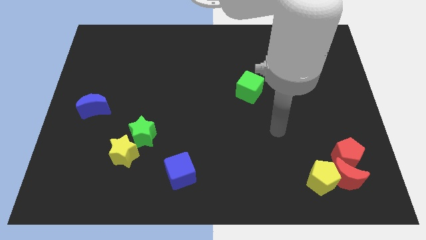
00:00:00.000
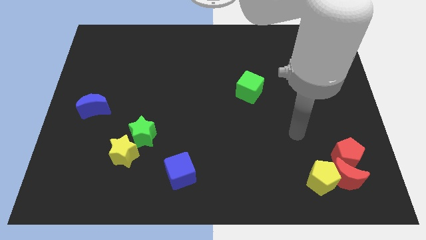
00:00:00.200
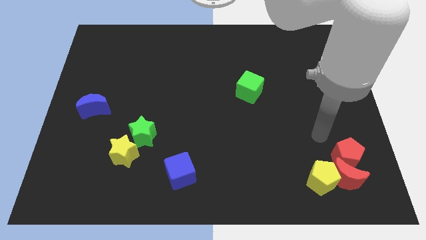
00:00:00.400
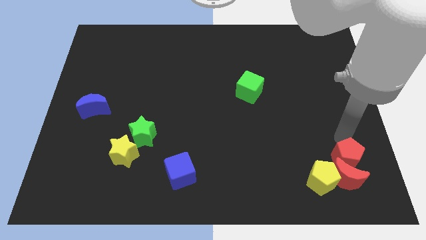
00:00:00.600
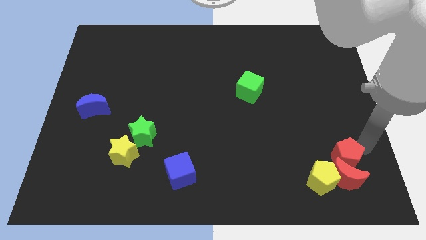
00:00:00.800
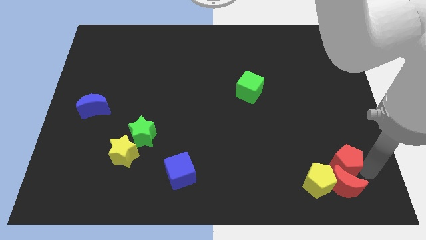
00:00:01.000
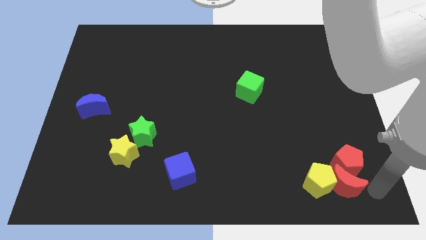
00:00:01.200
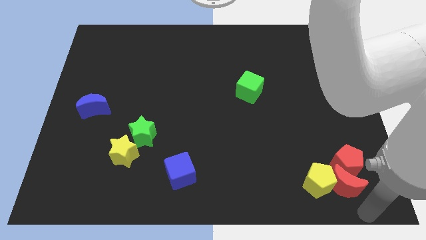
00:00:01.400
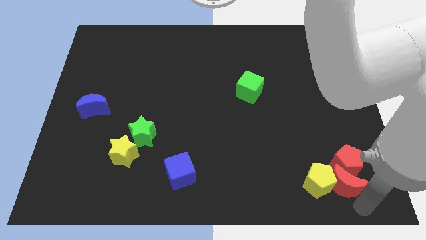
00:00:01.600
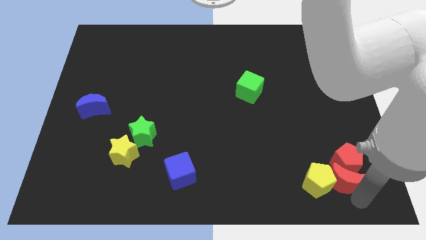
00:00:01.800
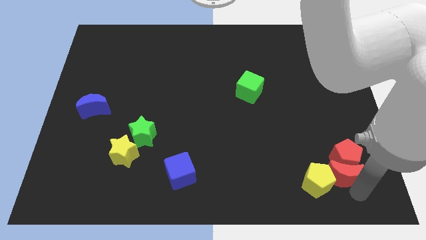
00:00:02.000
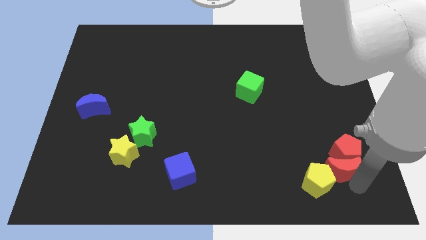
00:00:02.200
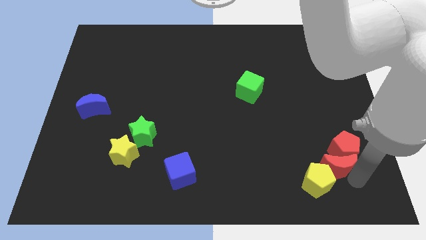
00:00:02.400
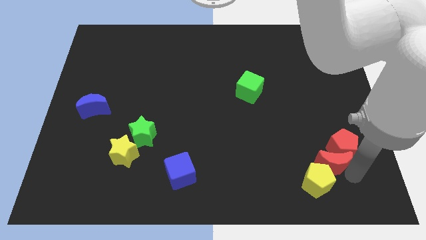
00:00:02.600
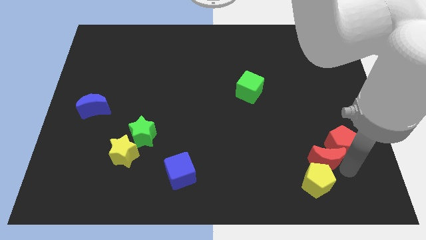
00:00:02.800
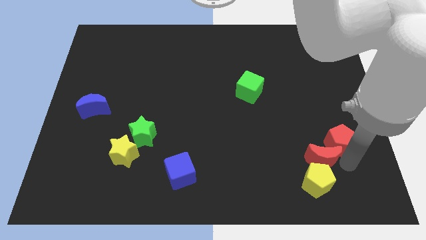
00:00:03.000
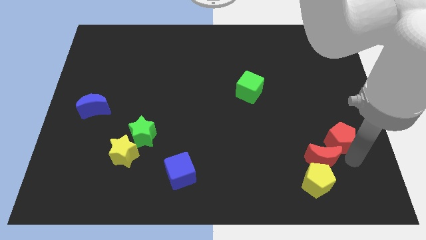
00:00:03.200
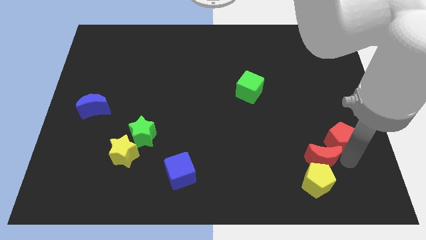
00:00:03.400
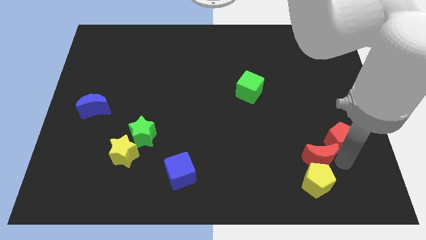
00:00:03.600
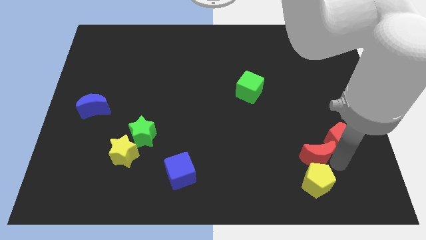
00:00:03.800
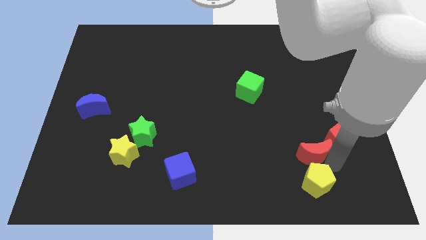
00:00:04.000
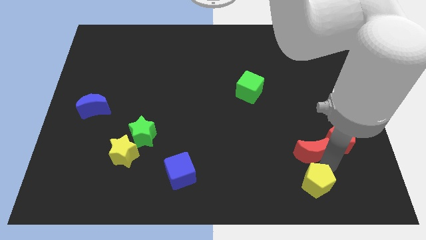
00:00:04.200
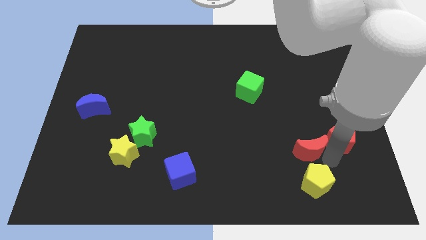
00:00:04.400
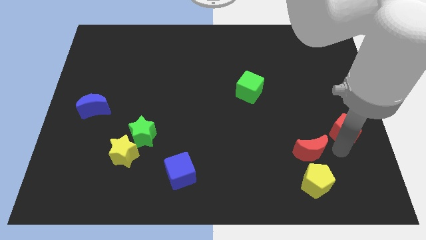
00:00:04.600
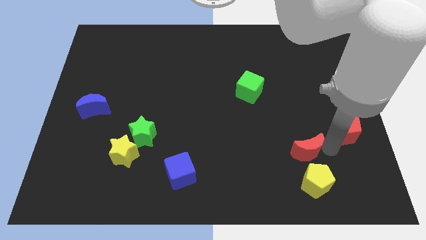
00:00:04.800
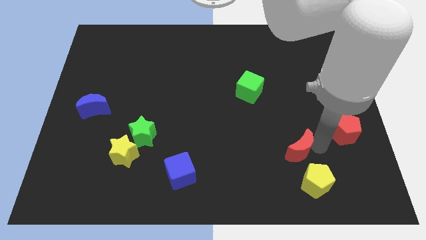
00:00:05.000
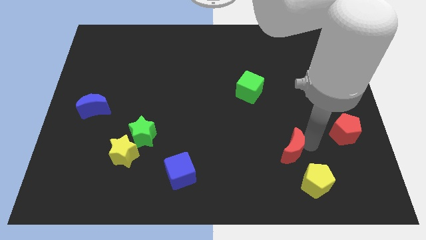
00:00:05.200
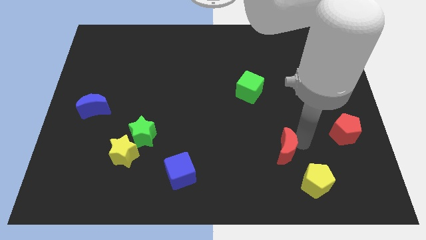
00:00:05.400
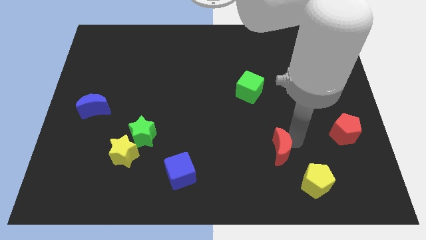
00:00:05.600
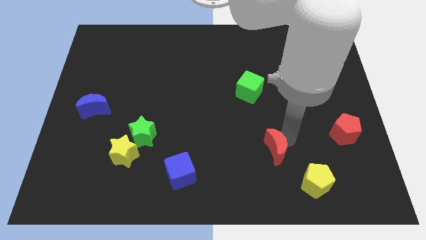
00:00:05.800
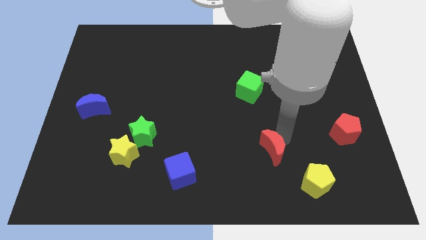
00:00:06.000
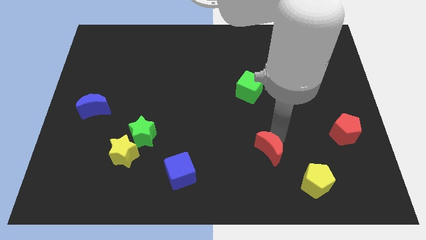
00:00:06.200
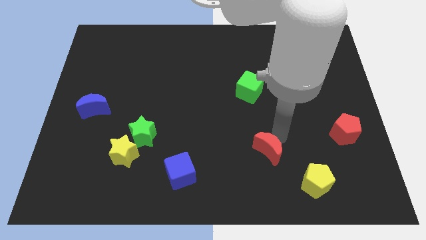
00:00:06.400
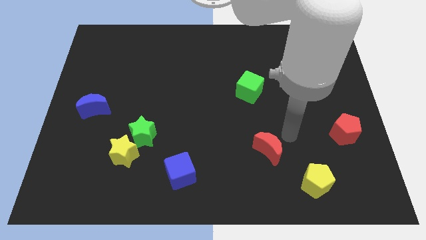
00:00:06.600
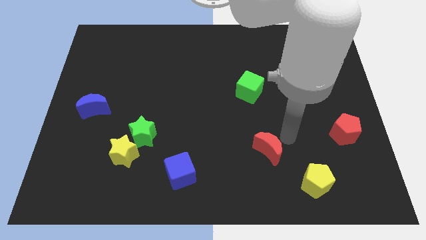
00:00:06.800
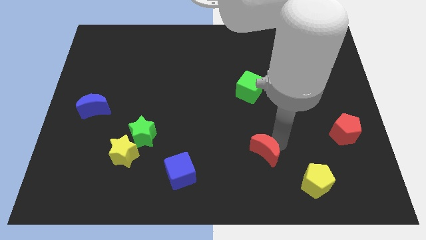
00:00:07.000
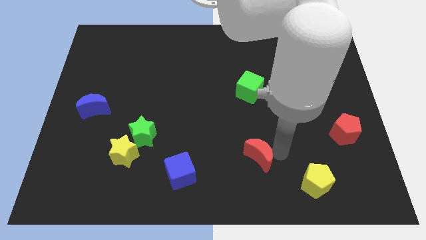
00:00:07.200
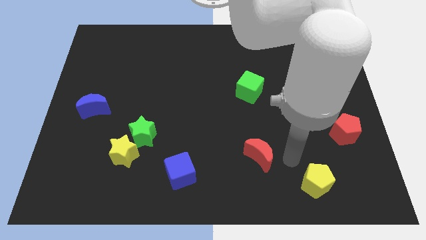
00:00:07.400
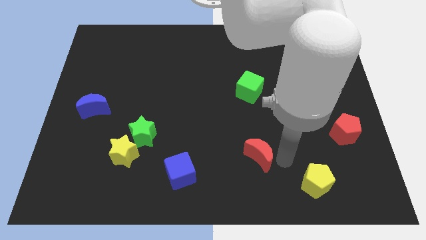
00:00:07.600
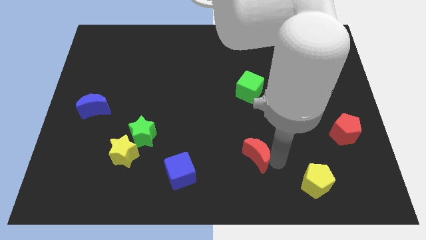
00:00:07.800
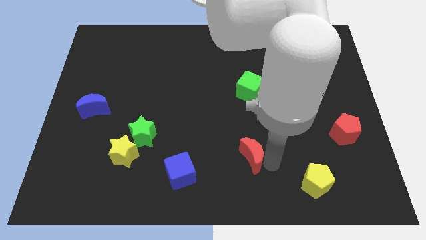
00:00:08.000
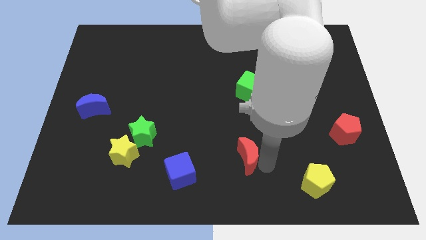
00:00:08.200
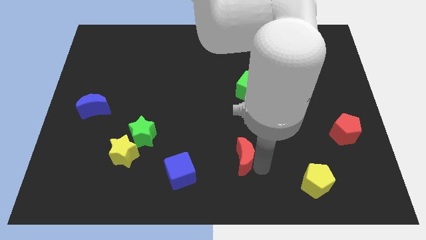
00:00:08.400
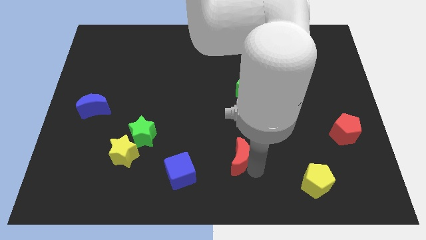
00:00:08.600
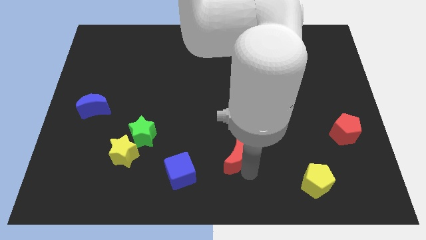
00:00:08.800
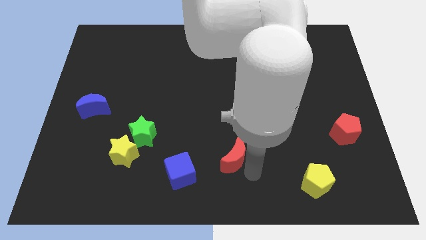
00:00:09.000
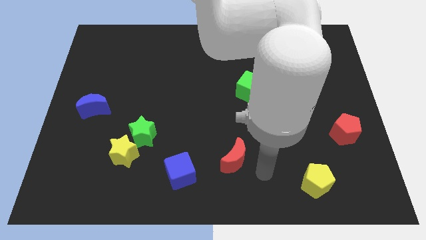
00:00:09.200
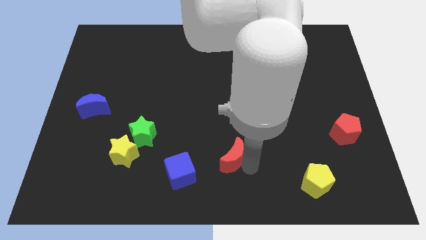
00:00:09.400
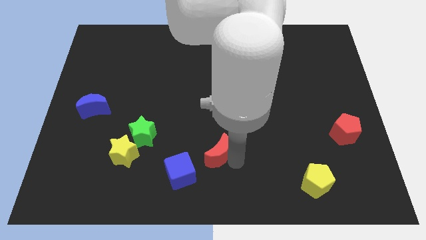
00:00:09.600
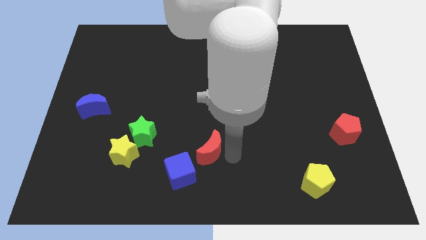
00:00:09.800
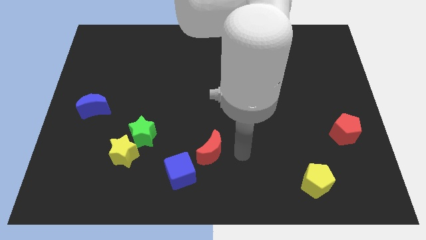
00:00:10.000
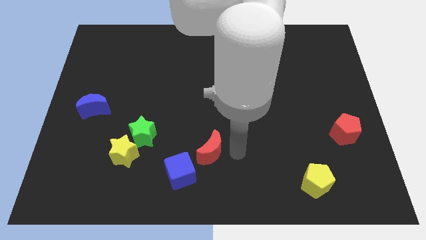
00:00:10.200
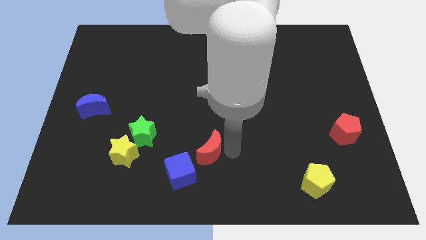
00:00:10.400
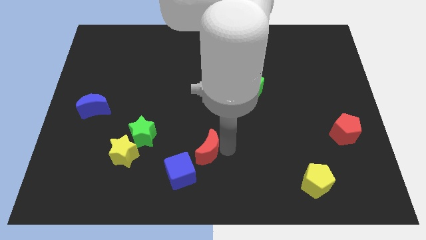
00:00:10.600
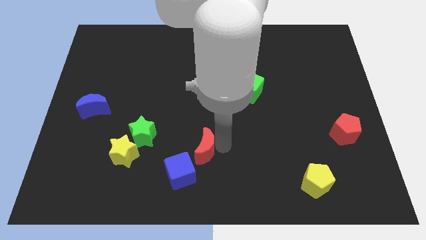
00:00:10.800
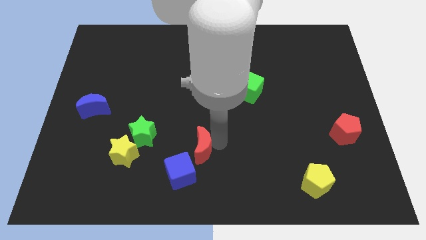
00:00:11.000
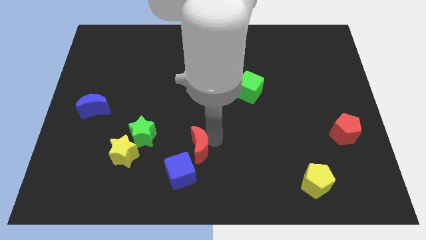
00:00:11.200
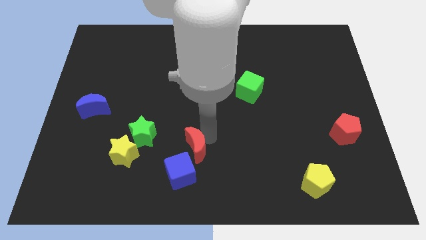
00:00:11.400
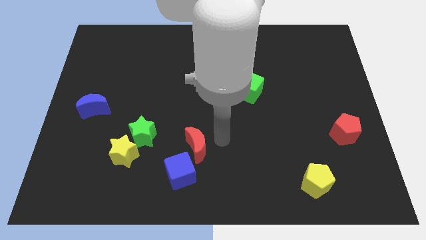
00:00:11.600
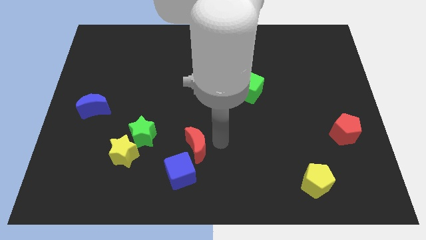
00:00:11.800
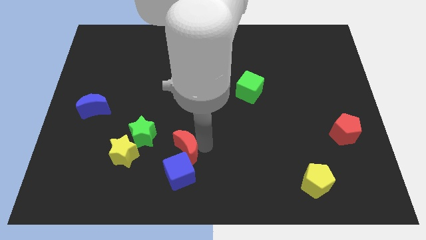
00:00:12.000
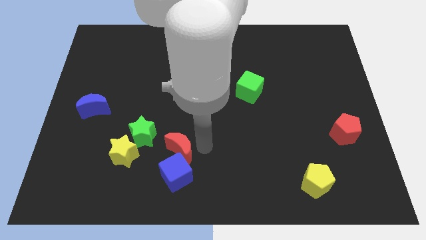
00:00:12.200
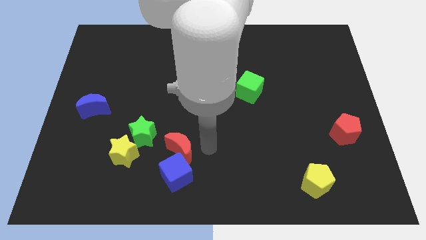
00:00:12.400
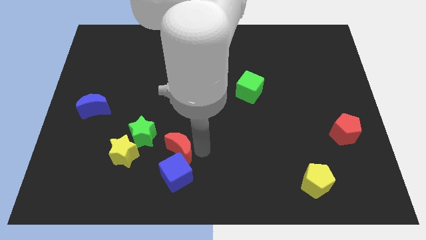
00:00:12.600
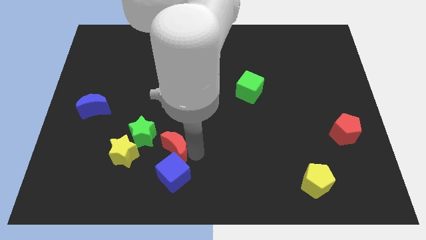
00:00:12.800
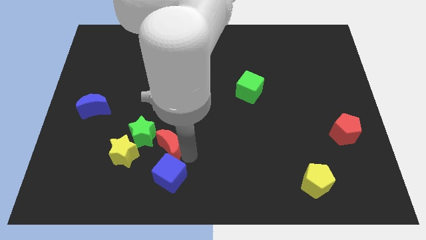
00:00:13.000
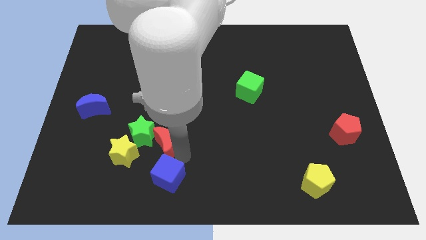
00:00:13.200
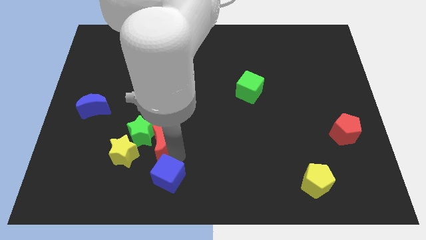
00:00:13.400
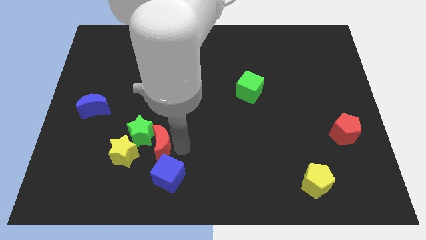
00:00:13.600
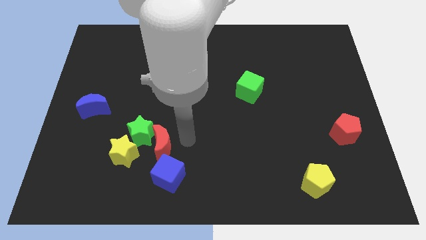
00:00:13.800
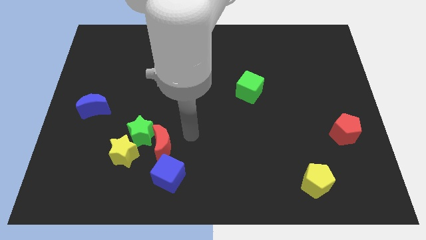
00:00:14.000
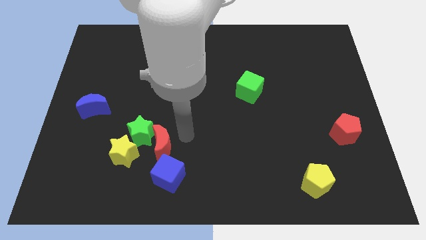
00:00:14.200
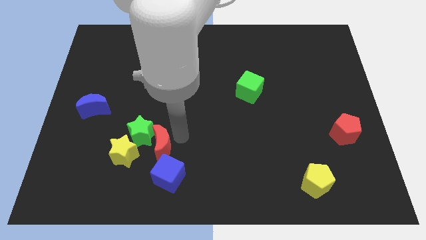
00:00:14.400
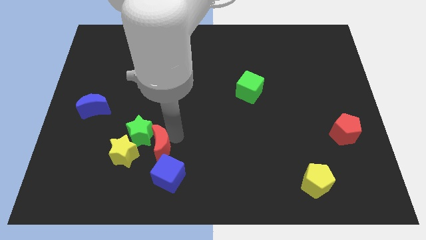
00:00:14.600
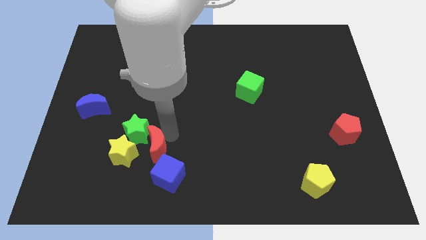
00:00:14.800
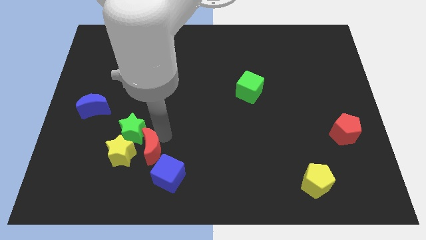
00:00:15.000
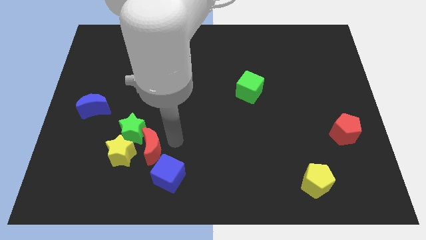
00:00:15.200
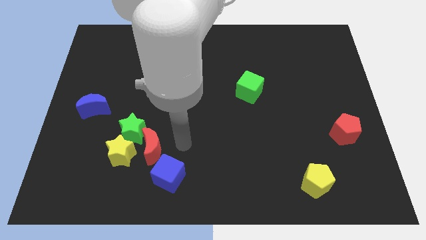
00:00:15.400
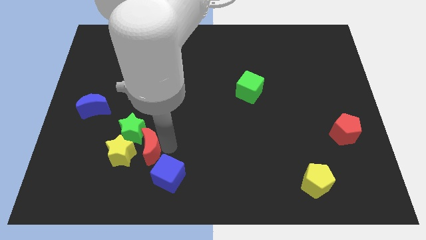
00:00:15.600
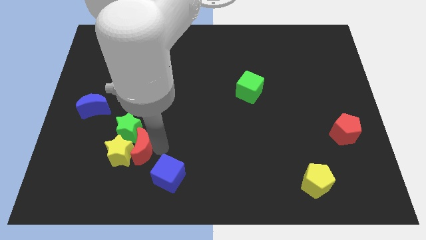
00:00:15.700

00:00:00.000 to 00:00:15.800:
move the red moon close to the yellow star
